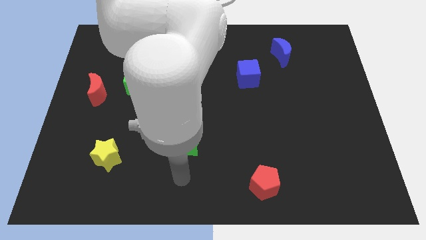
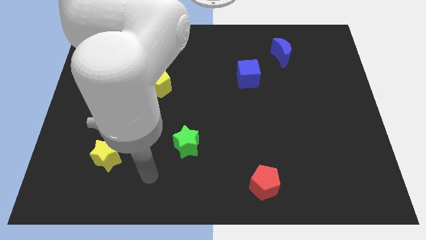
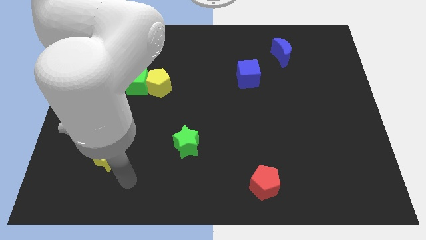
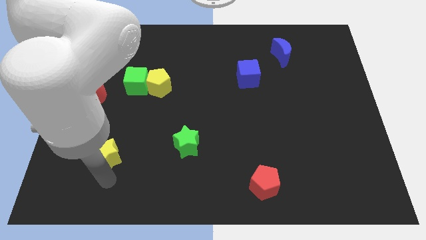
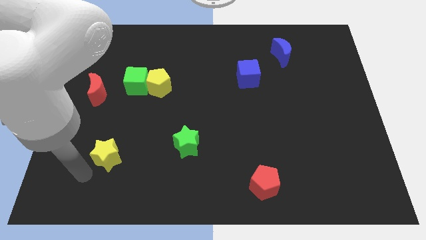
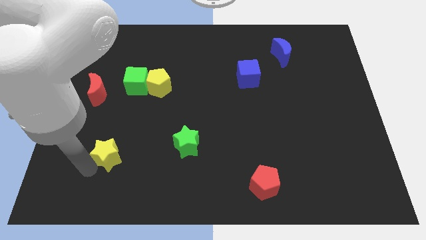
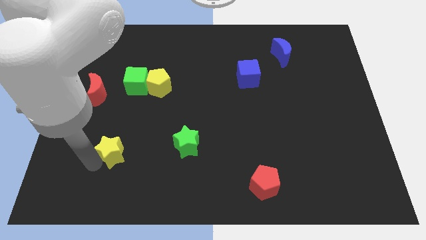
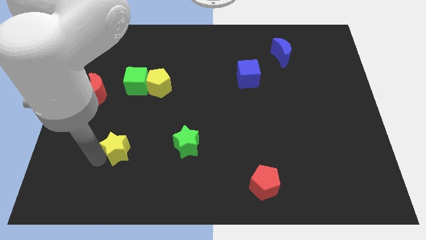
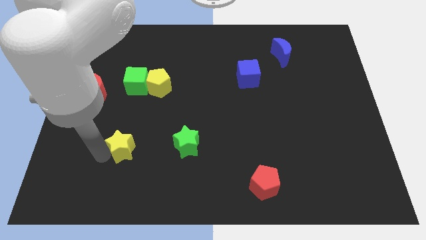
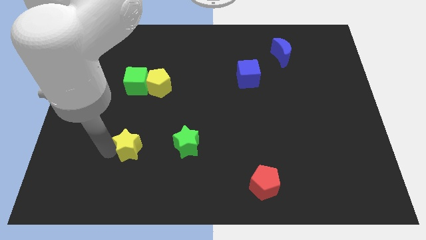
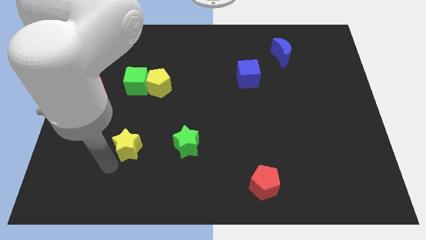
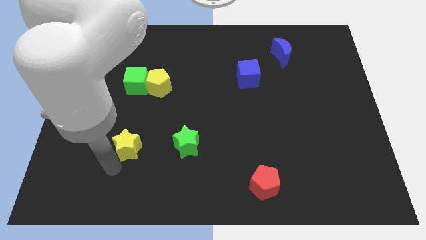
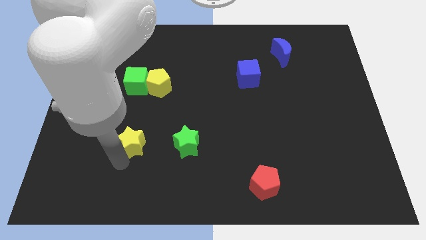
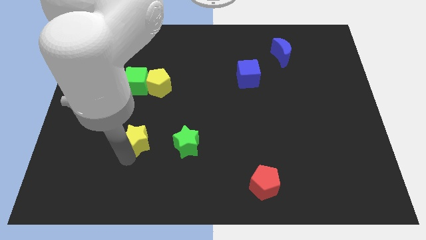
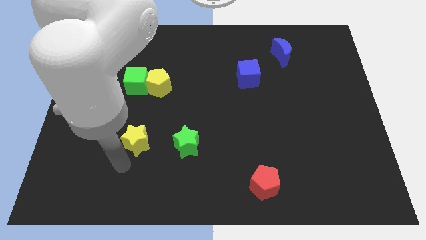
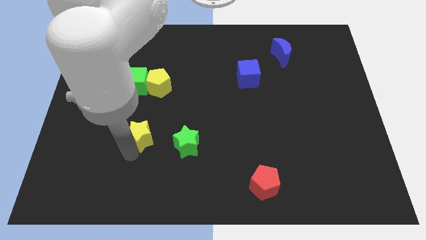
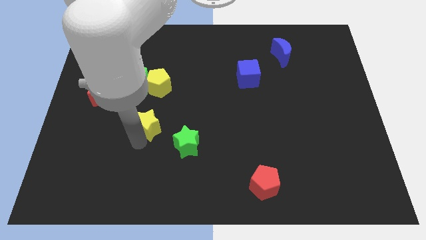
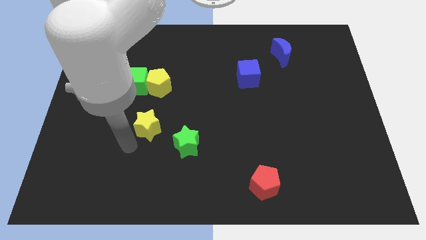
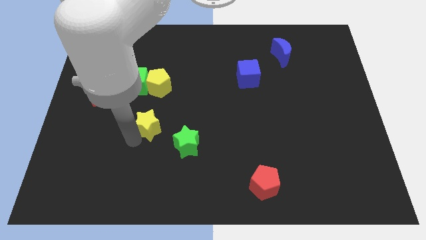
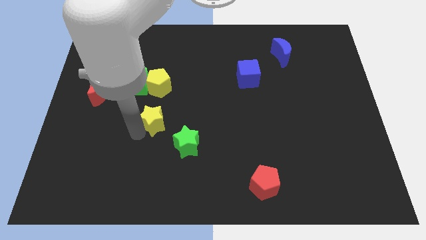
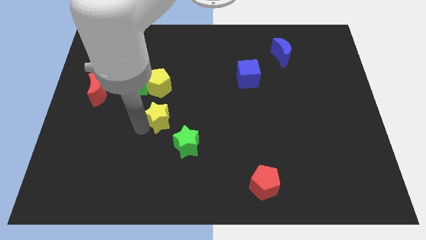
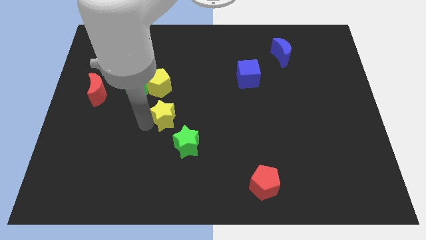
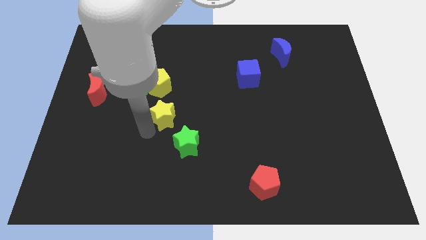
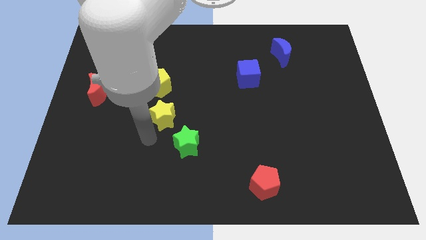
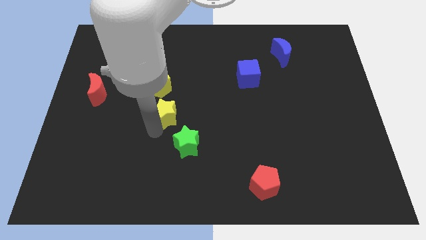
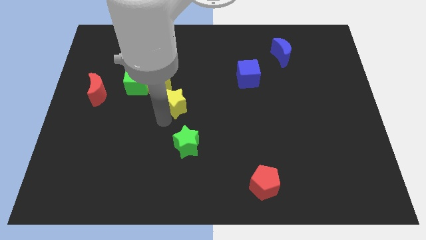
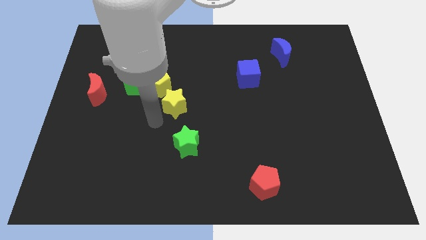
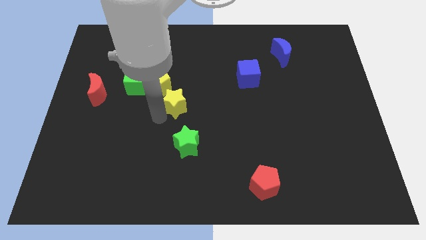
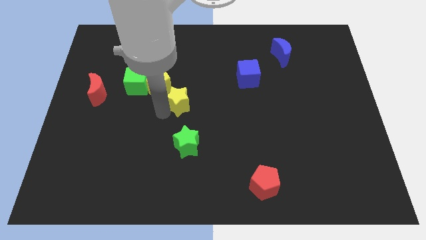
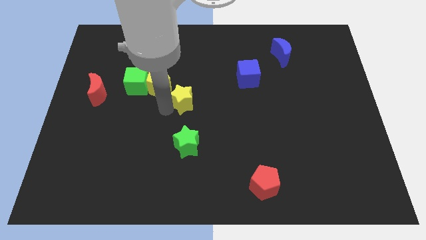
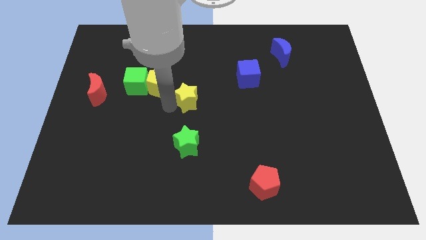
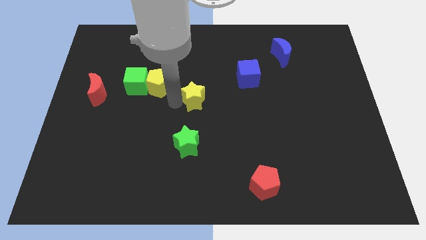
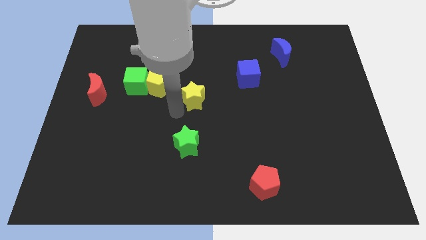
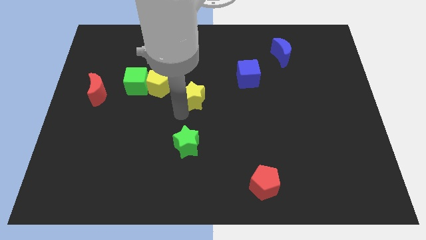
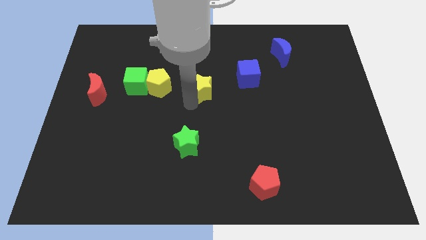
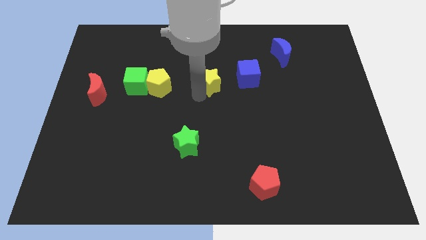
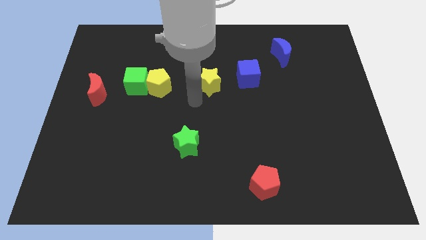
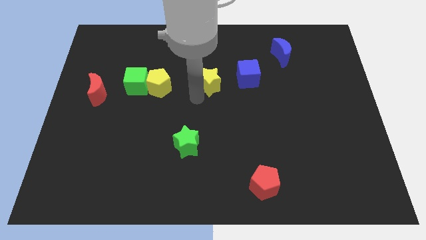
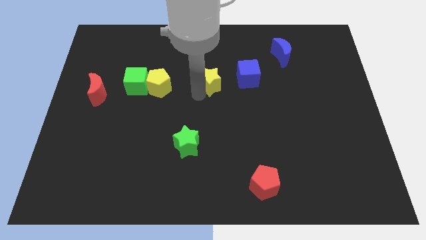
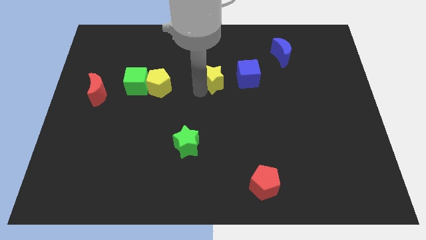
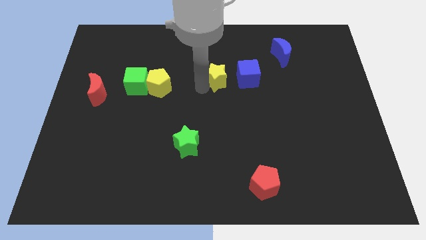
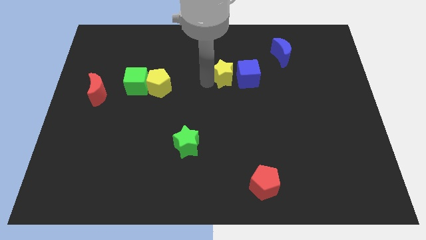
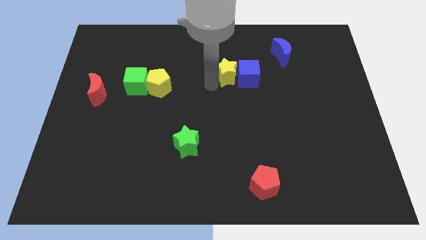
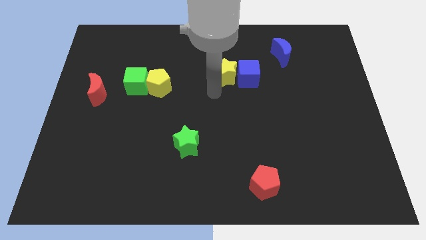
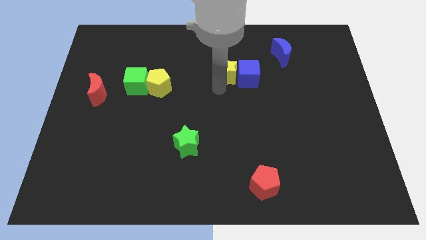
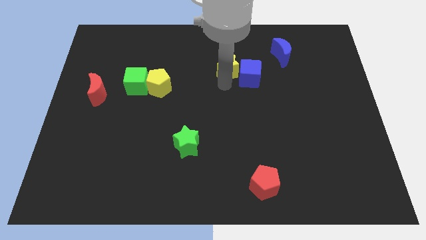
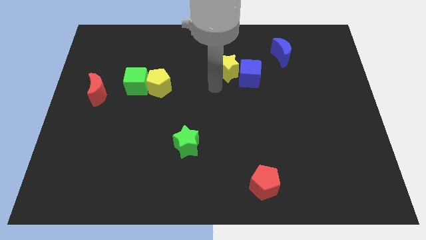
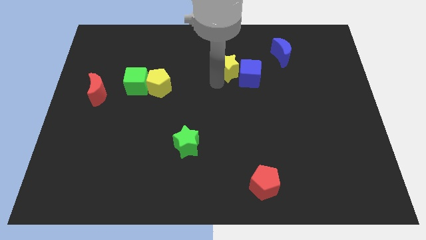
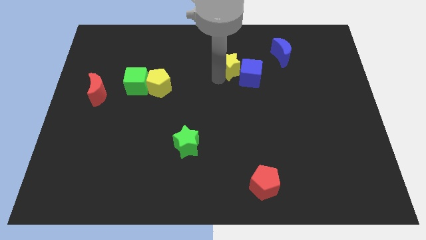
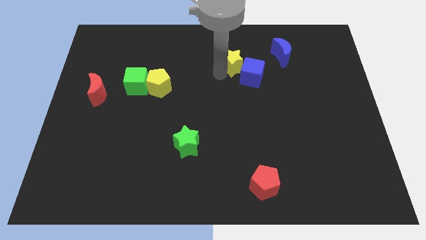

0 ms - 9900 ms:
push the yellow star to the left side of the blue moon

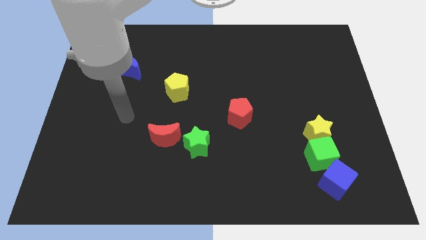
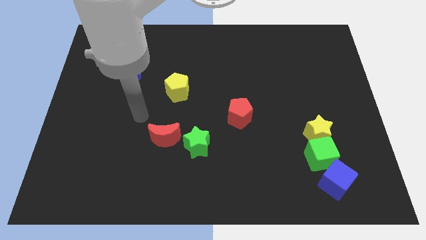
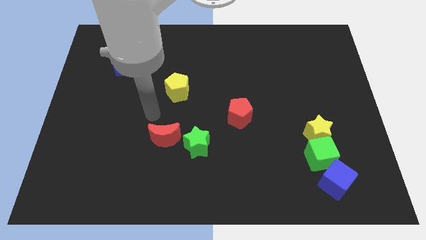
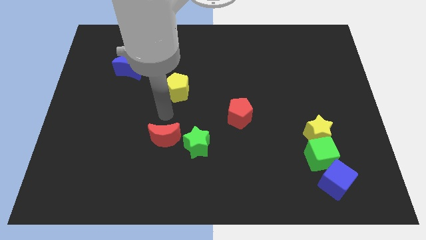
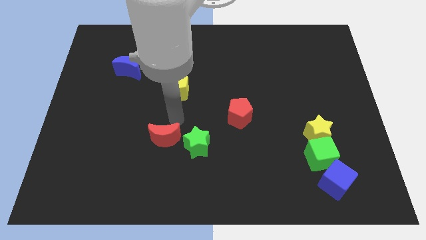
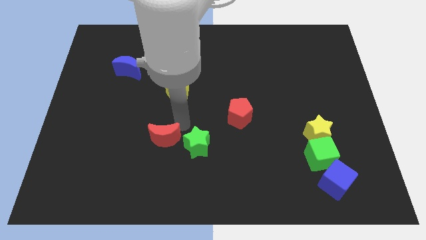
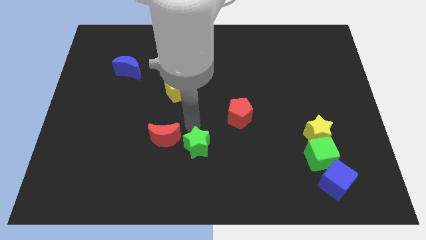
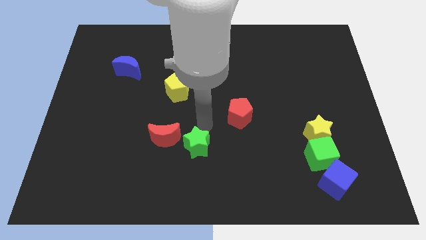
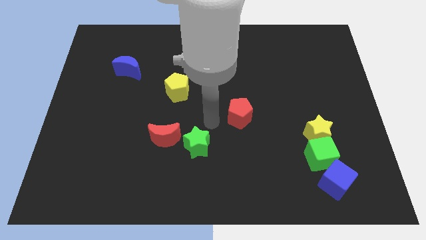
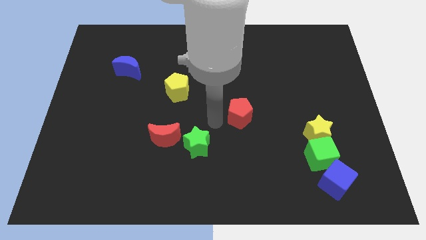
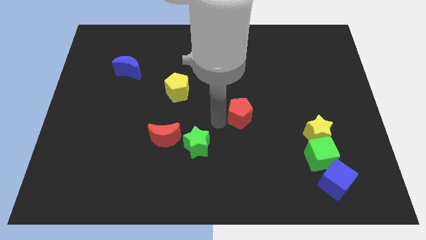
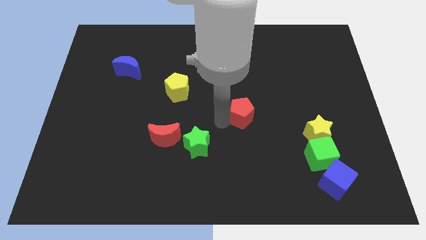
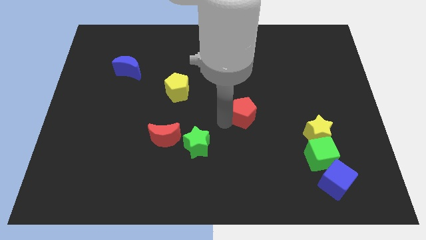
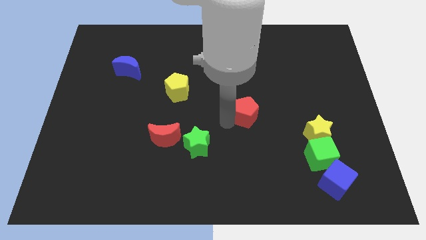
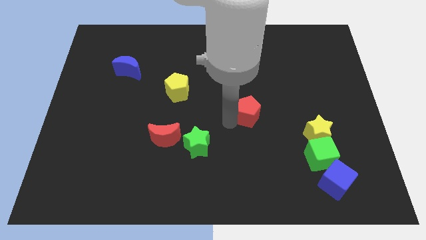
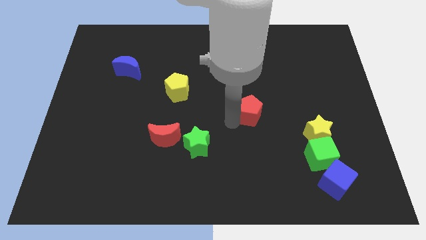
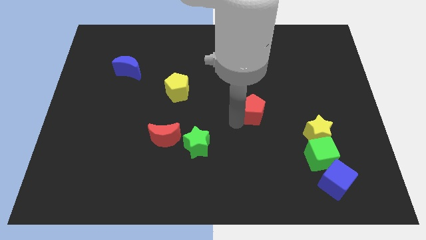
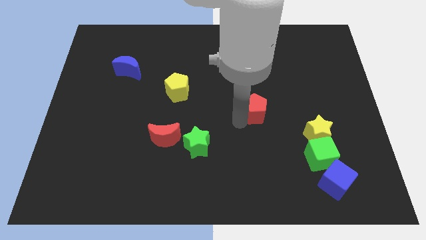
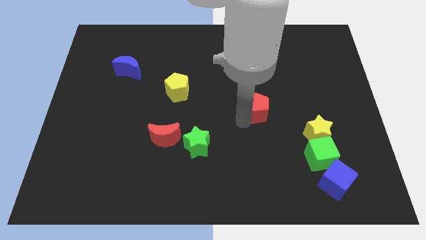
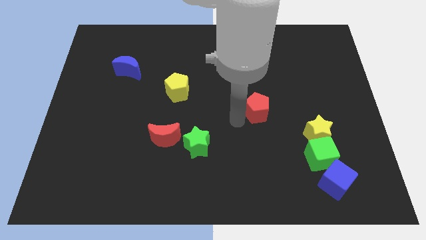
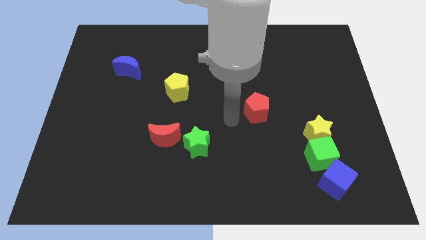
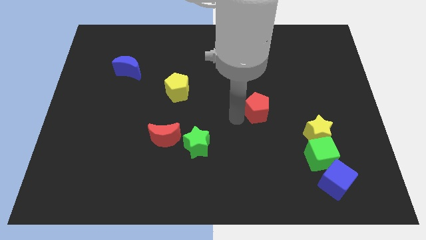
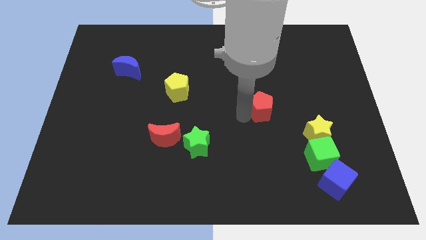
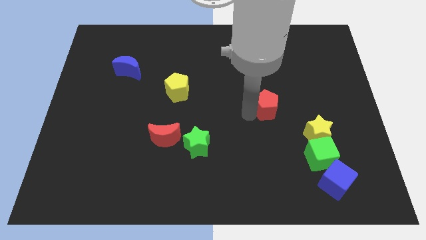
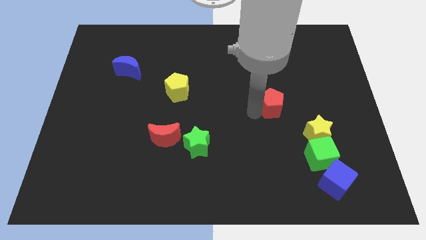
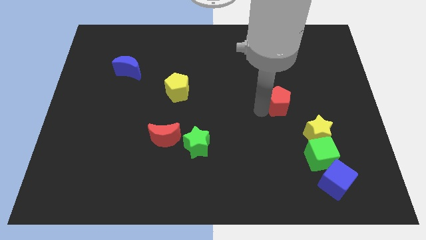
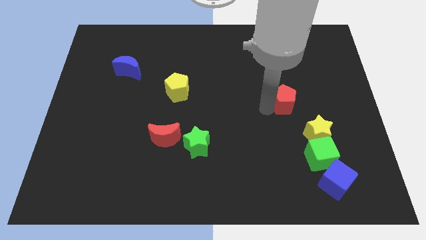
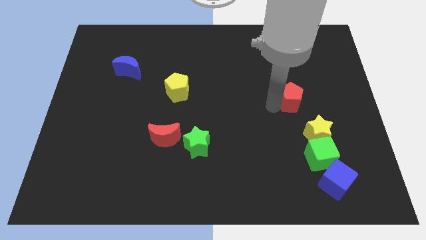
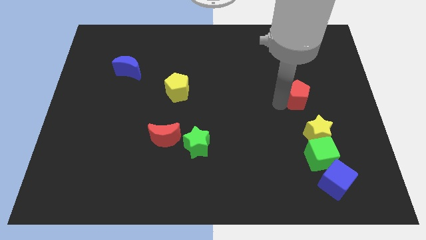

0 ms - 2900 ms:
slide the red pentagon to the top side of the yellow star

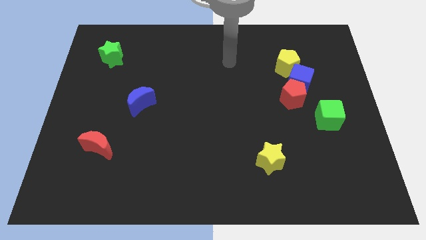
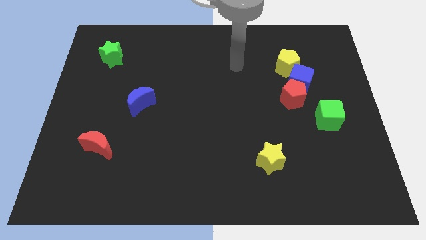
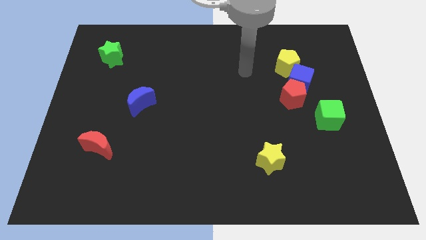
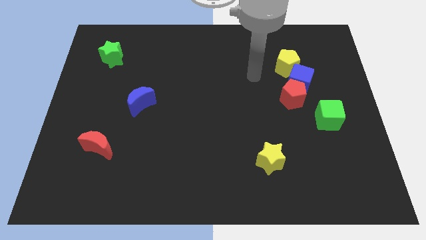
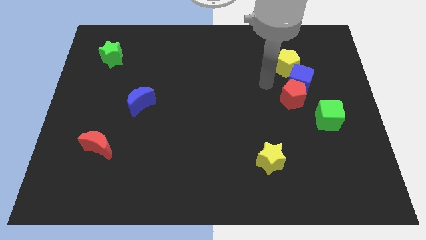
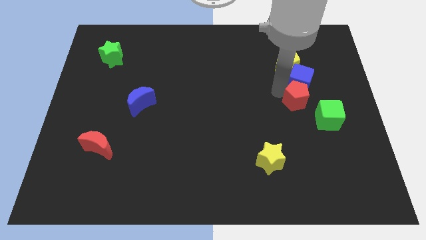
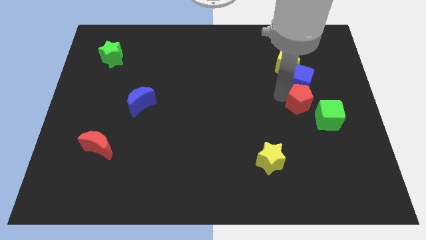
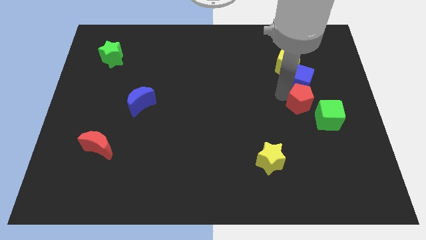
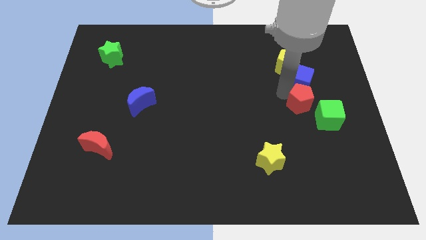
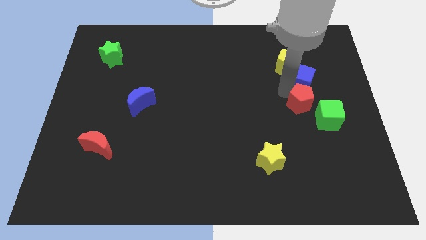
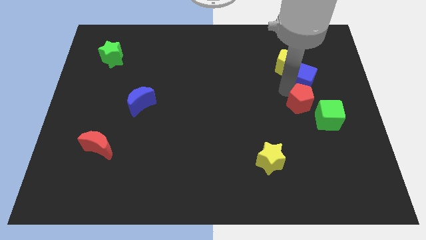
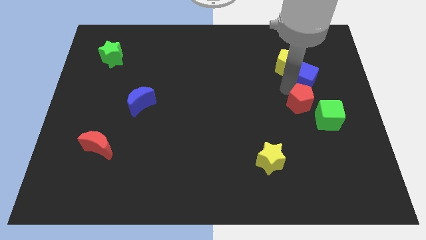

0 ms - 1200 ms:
move the blue cube just right of the yellow pentagon
